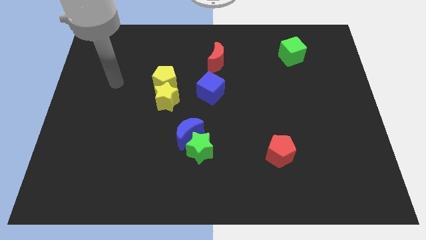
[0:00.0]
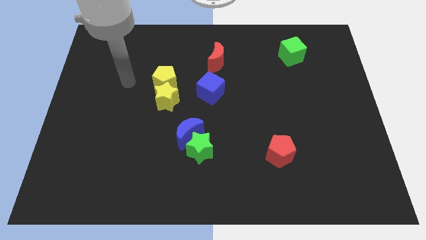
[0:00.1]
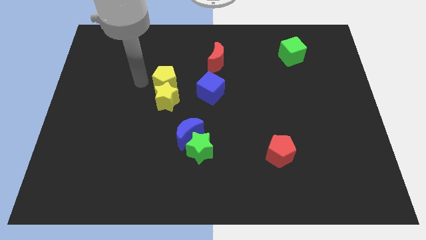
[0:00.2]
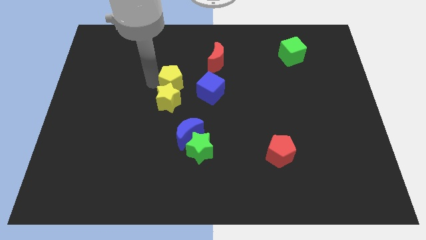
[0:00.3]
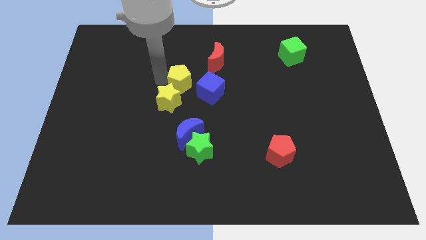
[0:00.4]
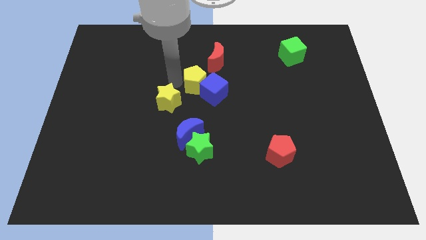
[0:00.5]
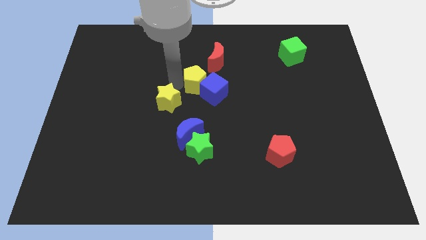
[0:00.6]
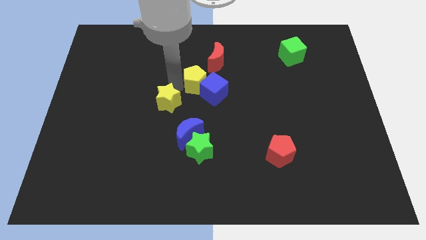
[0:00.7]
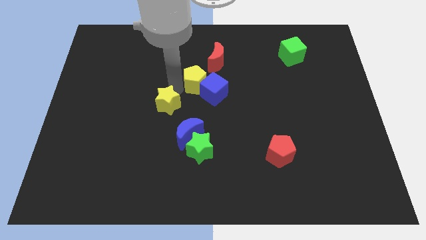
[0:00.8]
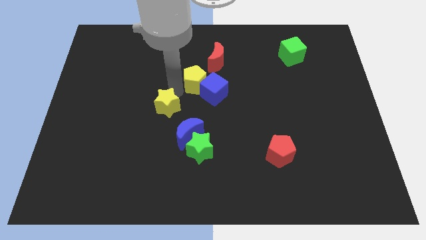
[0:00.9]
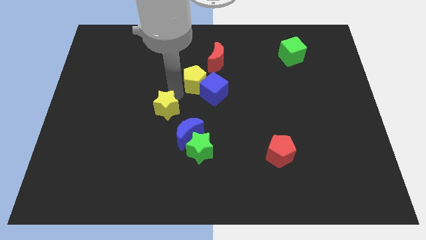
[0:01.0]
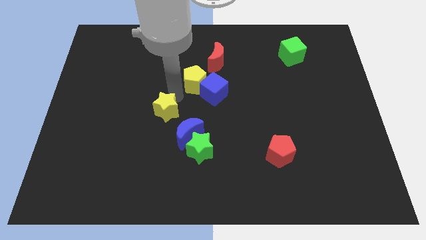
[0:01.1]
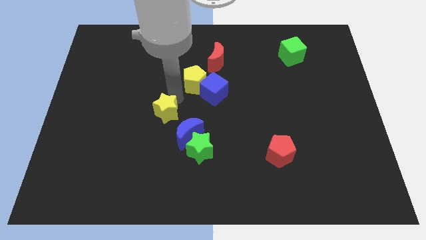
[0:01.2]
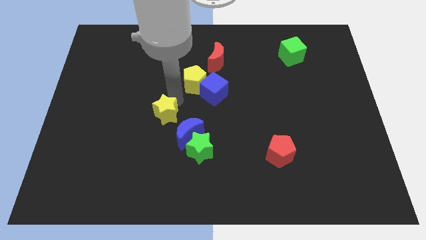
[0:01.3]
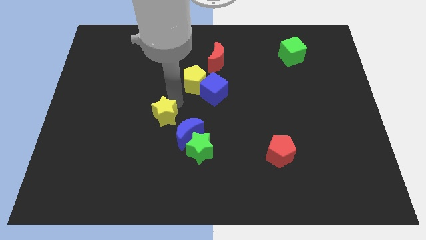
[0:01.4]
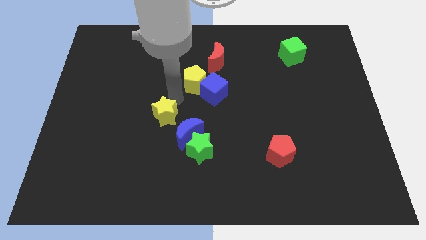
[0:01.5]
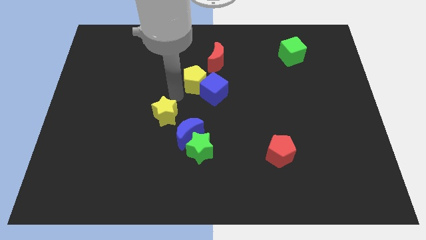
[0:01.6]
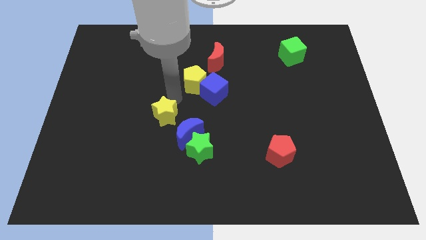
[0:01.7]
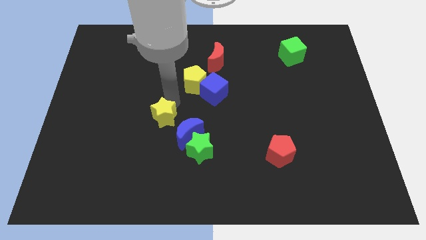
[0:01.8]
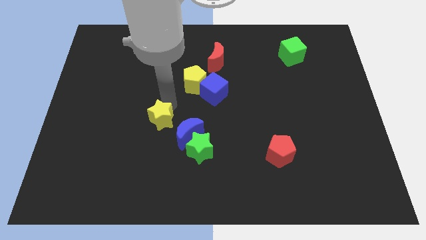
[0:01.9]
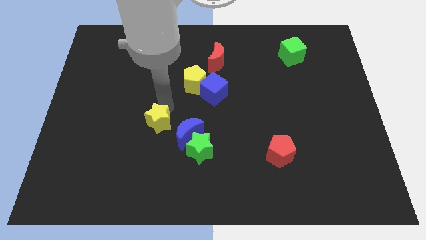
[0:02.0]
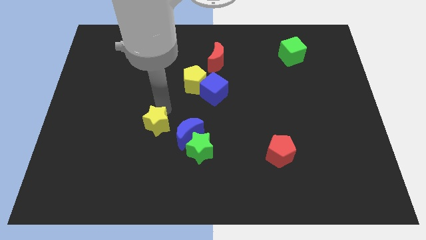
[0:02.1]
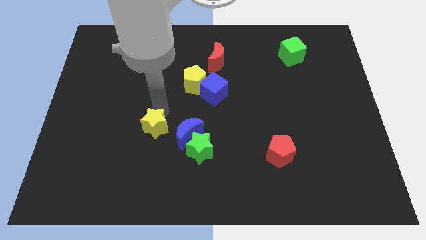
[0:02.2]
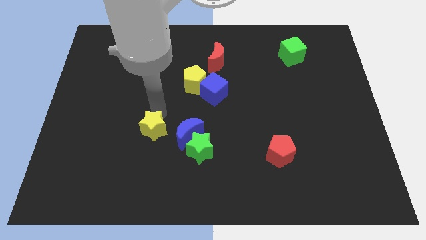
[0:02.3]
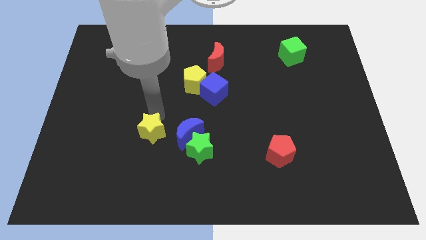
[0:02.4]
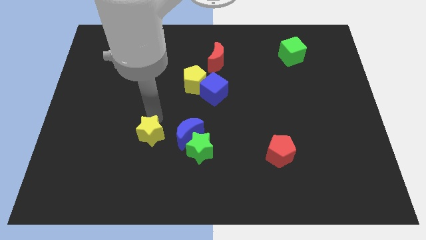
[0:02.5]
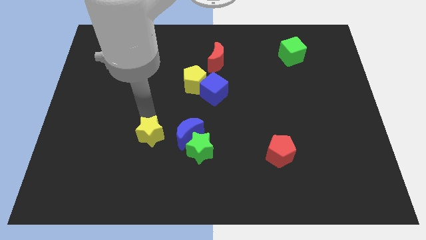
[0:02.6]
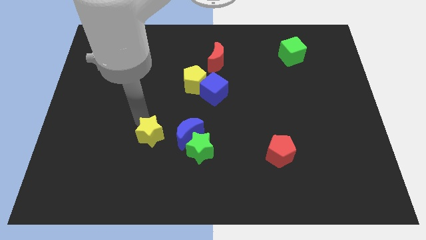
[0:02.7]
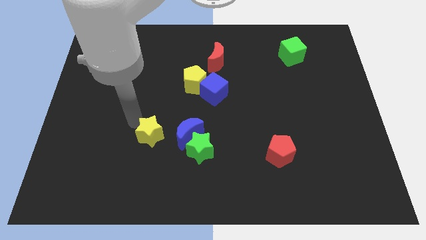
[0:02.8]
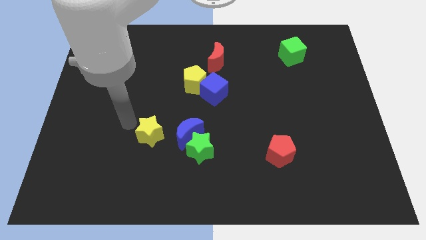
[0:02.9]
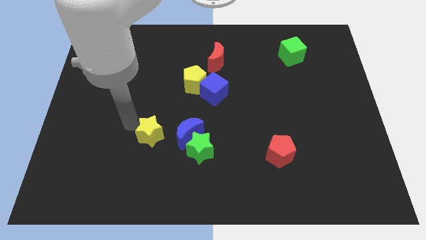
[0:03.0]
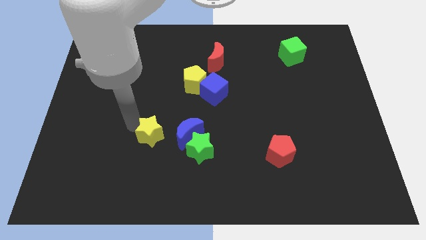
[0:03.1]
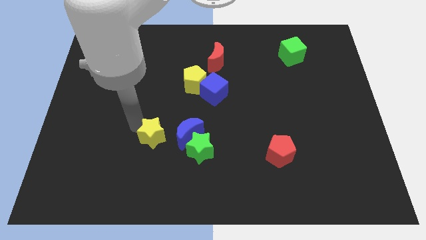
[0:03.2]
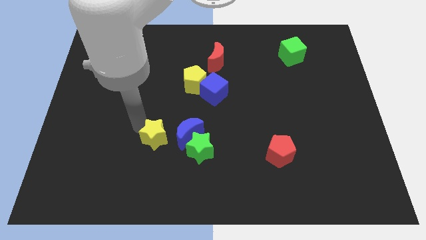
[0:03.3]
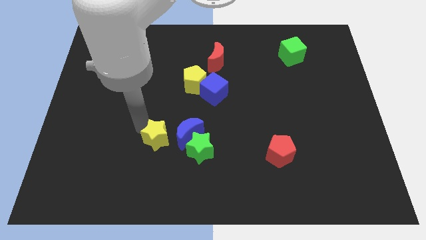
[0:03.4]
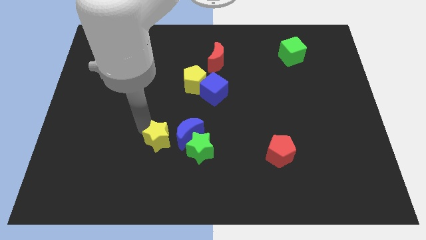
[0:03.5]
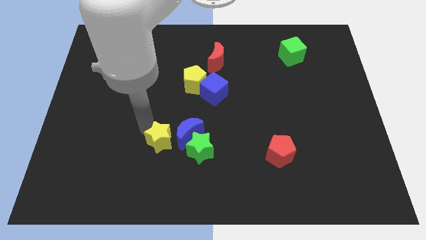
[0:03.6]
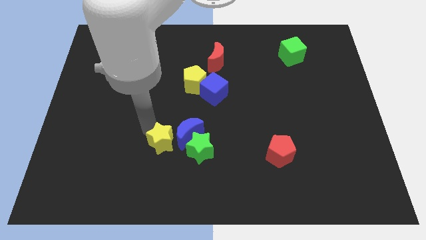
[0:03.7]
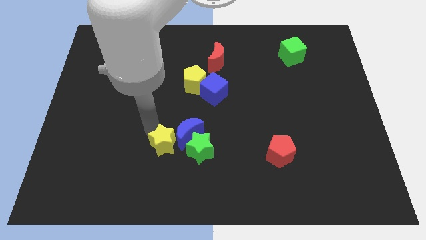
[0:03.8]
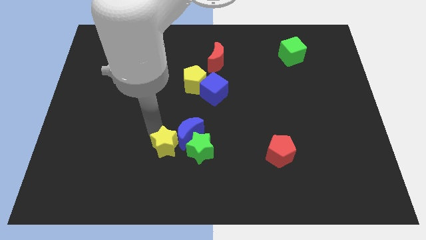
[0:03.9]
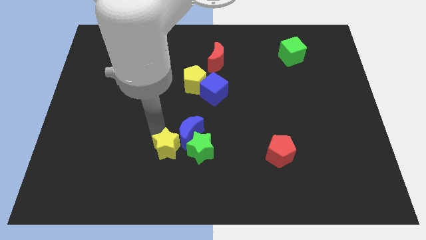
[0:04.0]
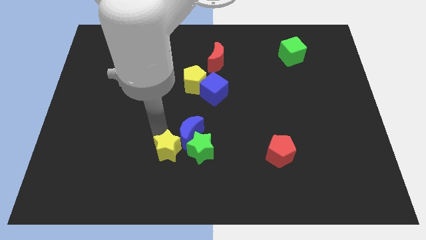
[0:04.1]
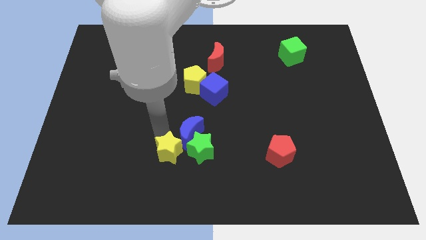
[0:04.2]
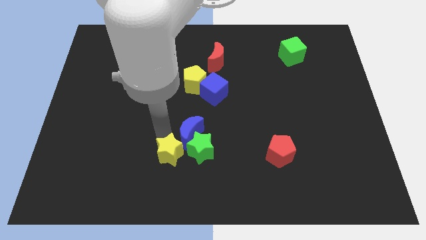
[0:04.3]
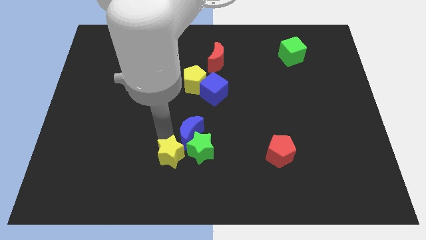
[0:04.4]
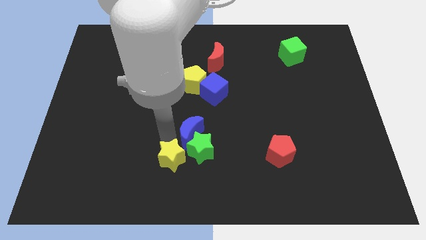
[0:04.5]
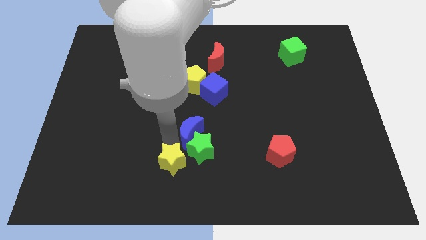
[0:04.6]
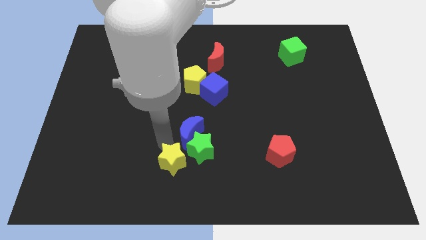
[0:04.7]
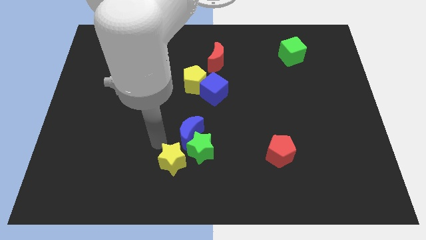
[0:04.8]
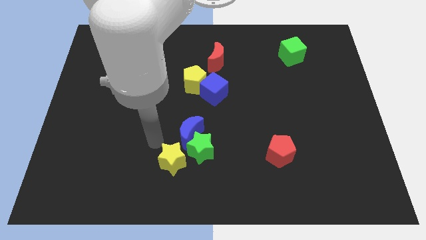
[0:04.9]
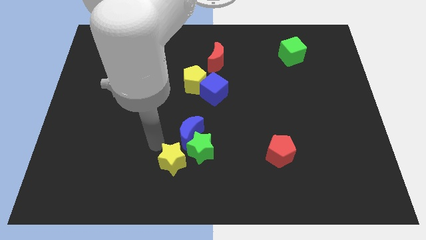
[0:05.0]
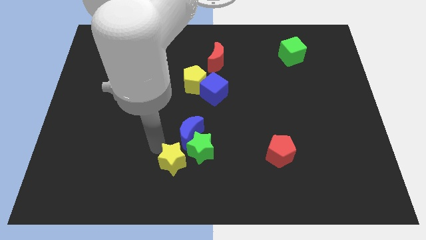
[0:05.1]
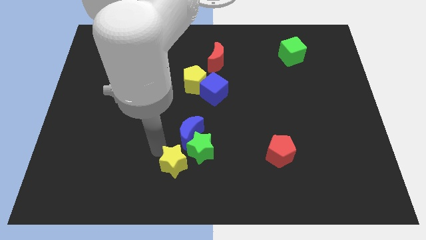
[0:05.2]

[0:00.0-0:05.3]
push the yellow star to the bottom side

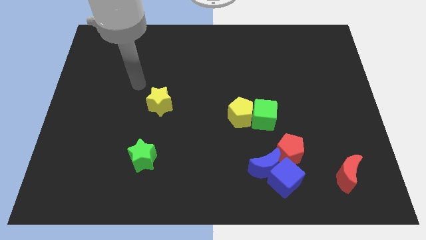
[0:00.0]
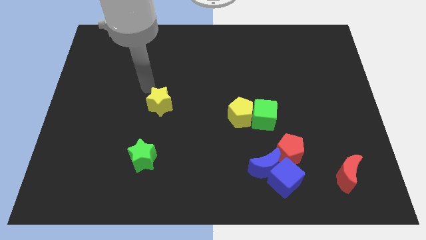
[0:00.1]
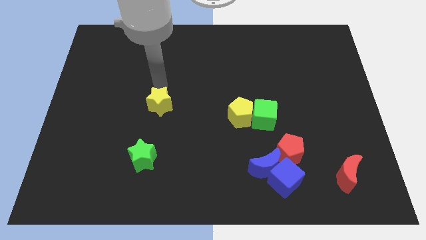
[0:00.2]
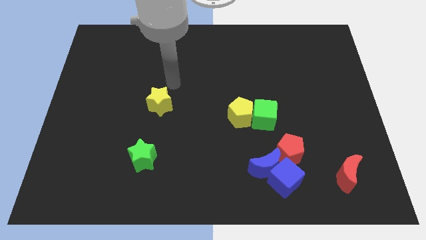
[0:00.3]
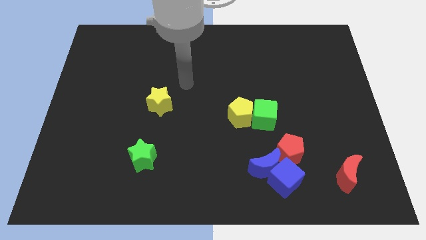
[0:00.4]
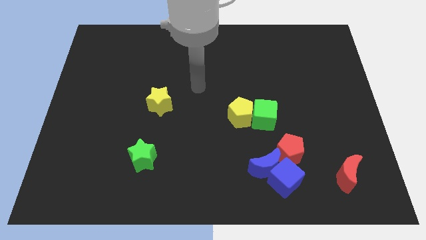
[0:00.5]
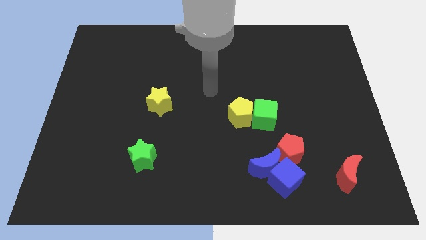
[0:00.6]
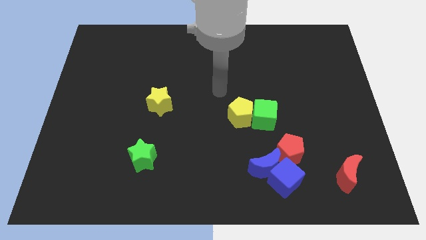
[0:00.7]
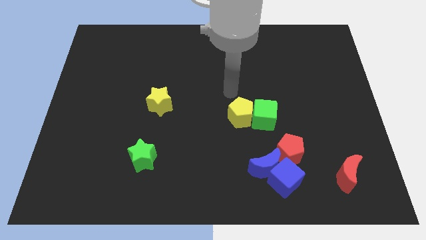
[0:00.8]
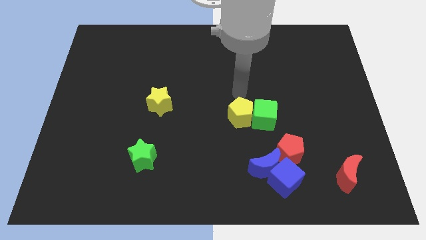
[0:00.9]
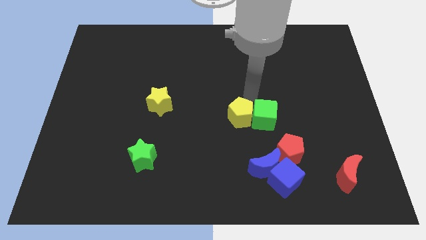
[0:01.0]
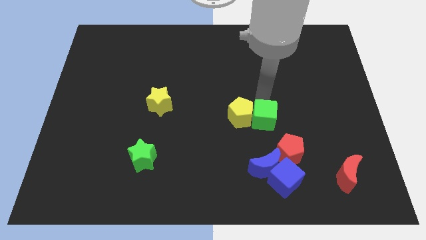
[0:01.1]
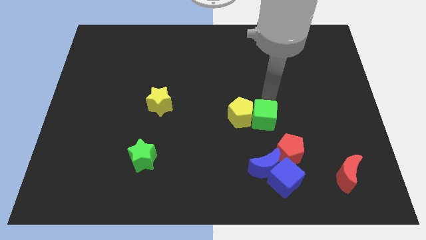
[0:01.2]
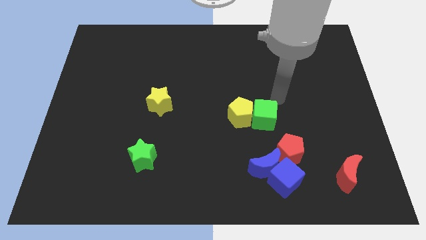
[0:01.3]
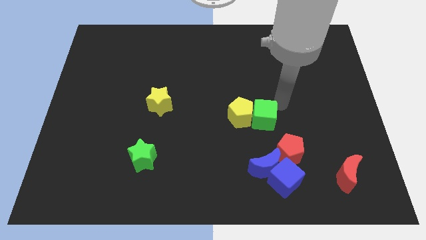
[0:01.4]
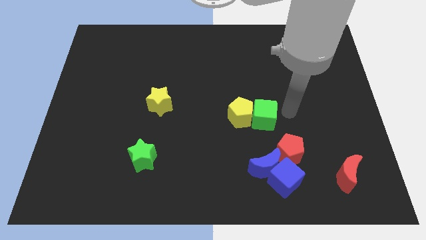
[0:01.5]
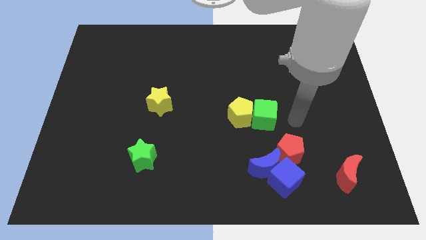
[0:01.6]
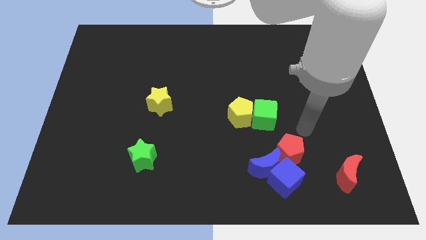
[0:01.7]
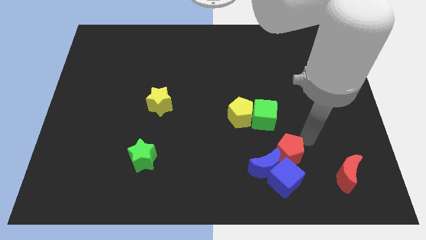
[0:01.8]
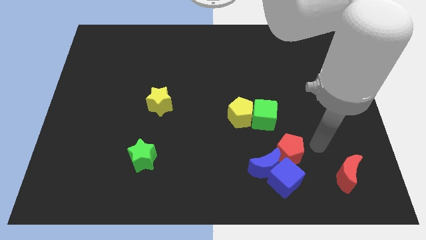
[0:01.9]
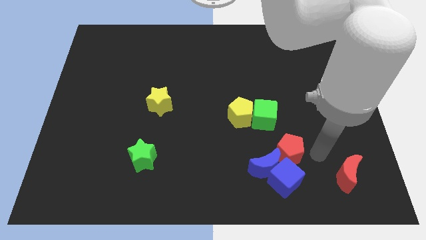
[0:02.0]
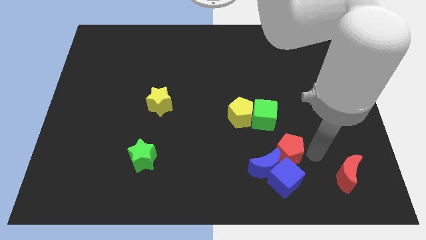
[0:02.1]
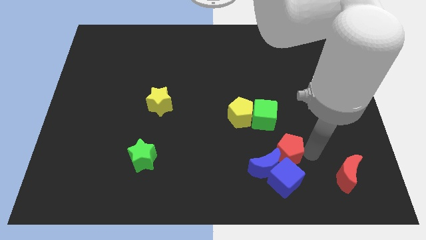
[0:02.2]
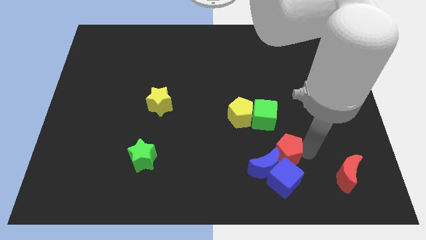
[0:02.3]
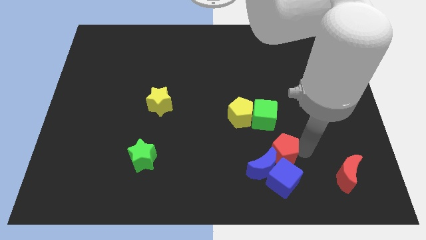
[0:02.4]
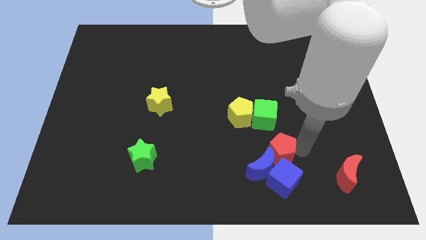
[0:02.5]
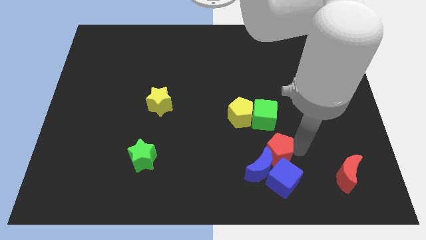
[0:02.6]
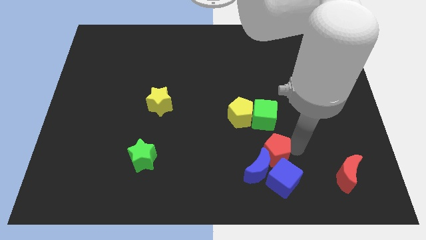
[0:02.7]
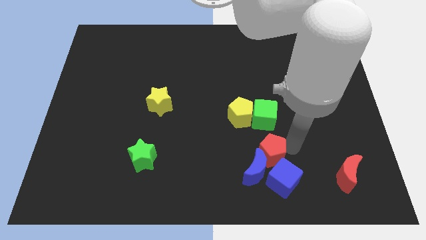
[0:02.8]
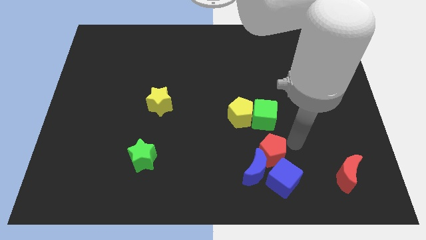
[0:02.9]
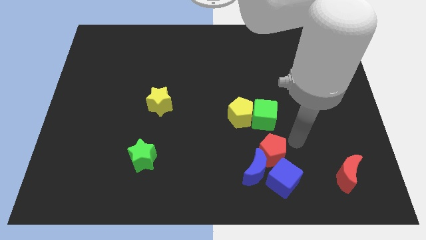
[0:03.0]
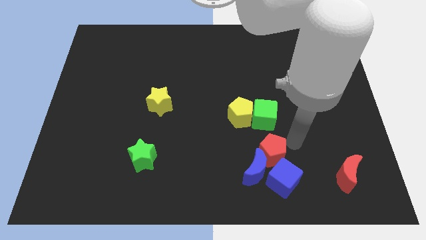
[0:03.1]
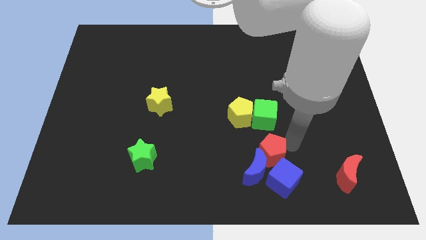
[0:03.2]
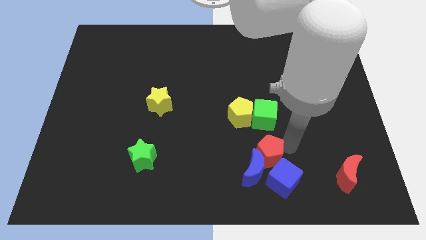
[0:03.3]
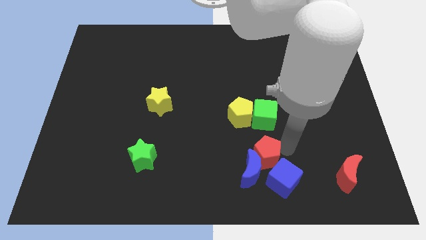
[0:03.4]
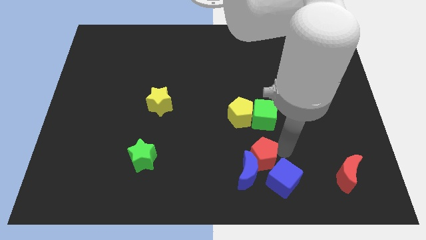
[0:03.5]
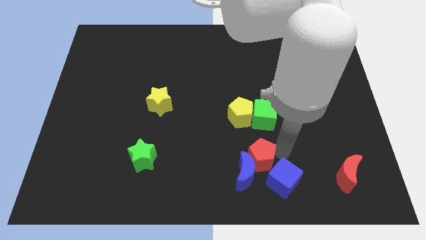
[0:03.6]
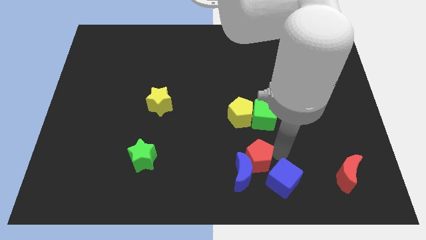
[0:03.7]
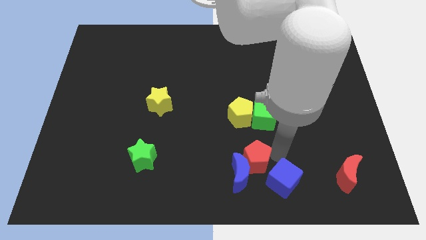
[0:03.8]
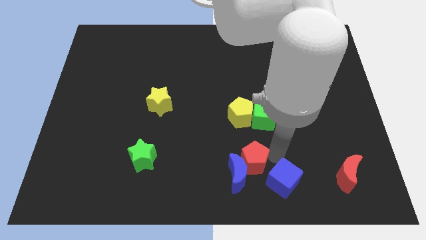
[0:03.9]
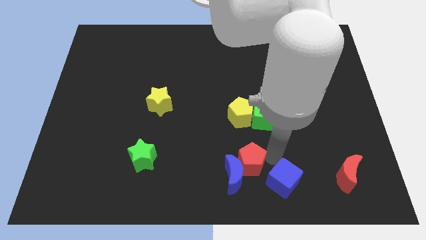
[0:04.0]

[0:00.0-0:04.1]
slide the red pentagon to the bottom
